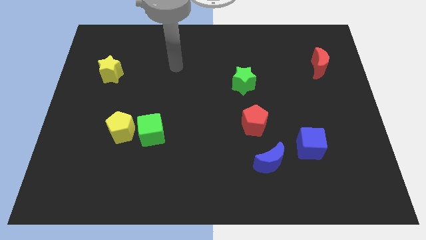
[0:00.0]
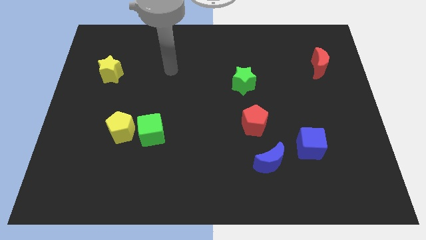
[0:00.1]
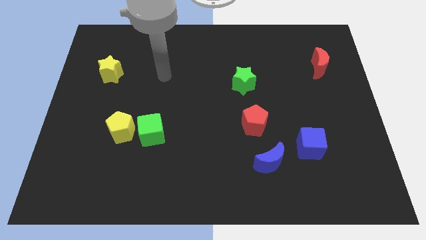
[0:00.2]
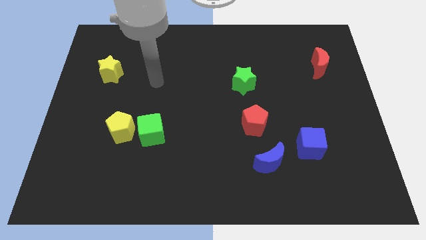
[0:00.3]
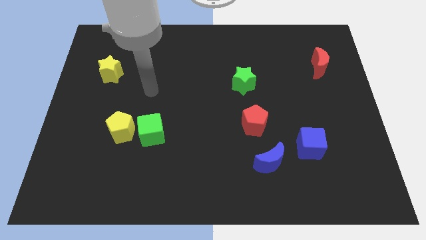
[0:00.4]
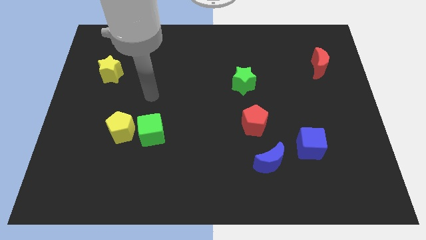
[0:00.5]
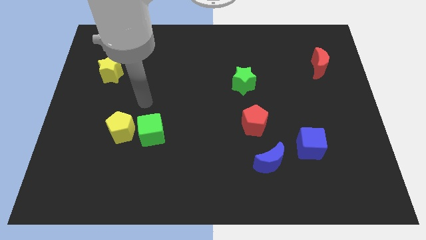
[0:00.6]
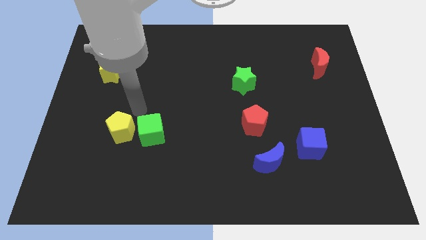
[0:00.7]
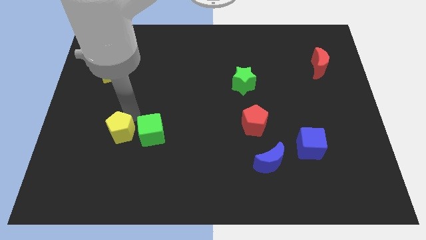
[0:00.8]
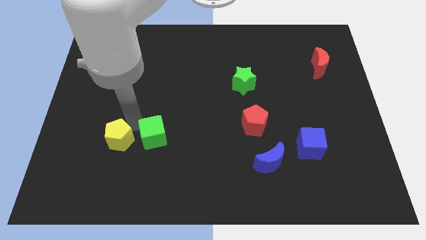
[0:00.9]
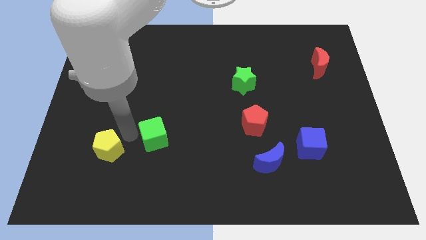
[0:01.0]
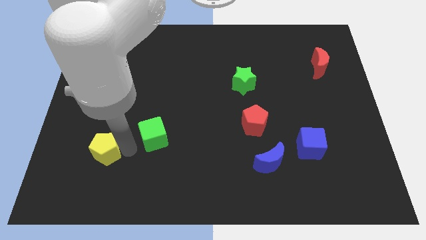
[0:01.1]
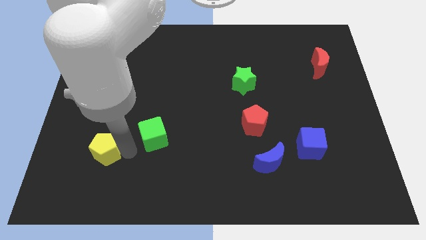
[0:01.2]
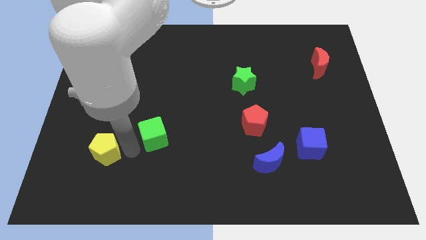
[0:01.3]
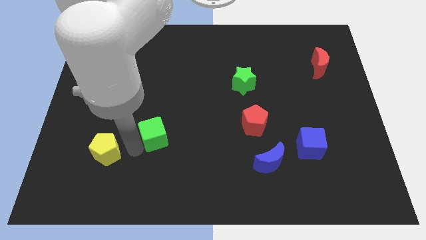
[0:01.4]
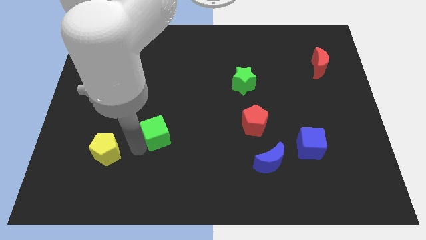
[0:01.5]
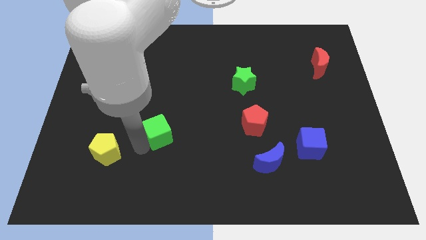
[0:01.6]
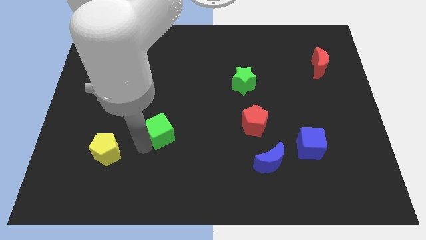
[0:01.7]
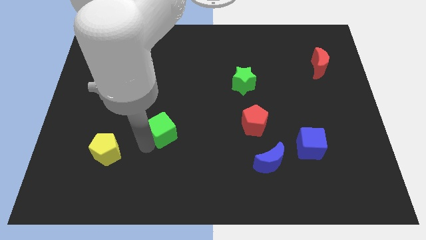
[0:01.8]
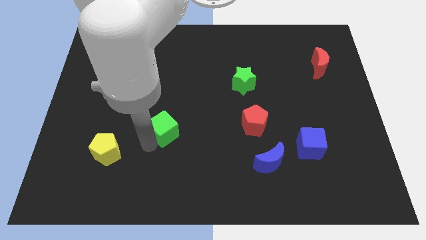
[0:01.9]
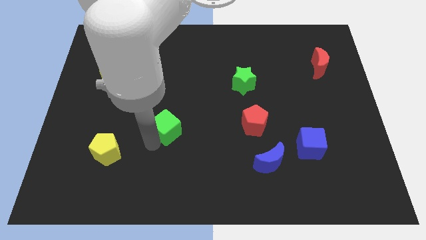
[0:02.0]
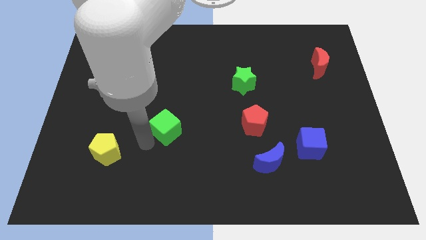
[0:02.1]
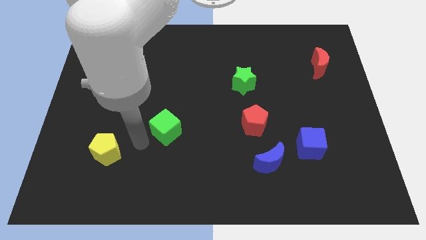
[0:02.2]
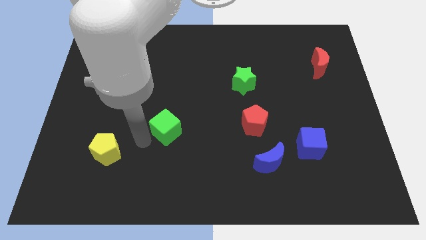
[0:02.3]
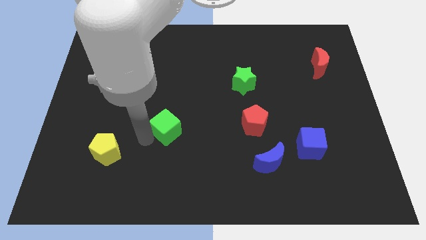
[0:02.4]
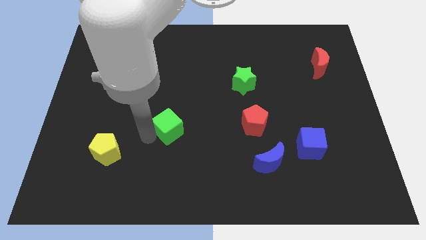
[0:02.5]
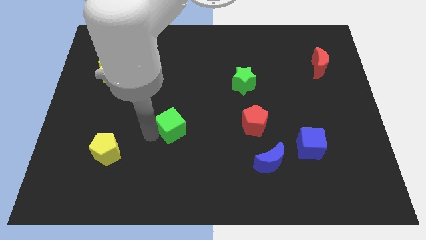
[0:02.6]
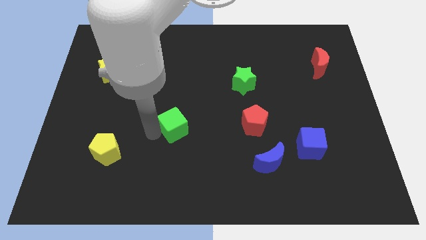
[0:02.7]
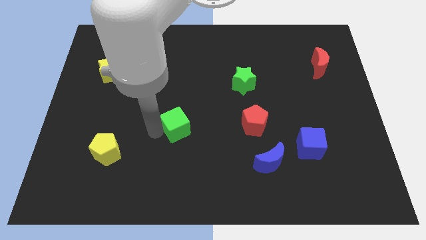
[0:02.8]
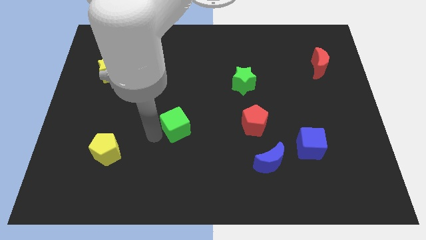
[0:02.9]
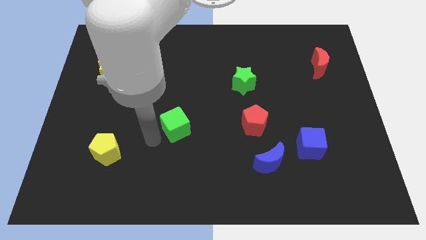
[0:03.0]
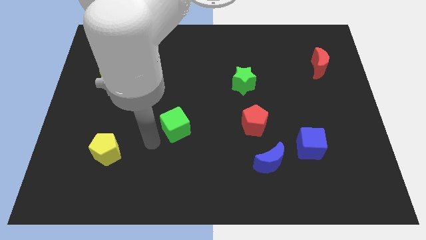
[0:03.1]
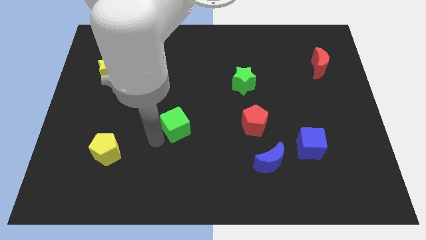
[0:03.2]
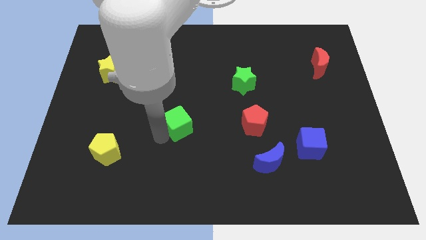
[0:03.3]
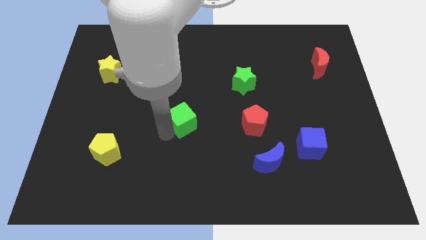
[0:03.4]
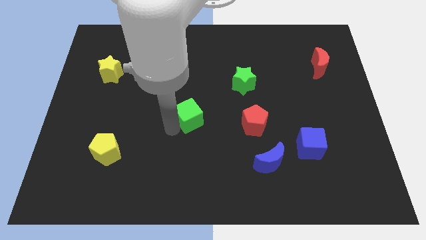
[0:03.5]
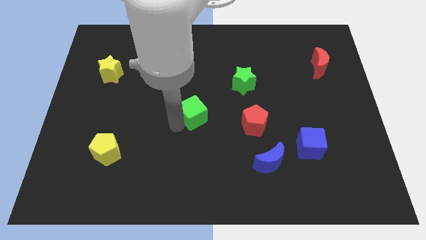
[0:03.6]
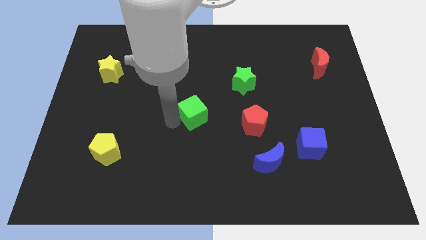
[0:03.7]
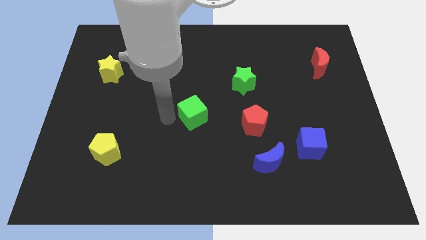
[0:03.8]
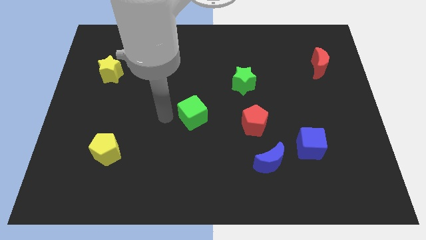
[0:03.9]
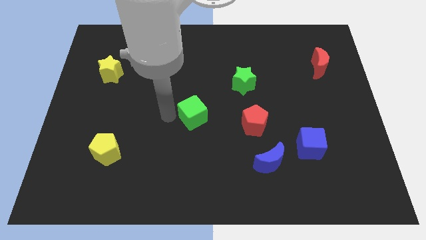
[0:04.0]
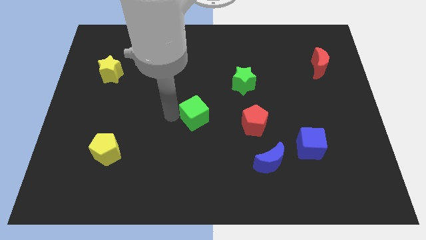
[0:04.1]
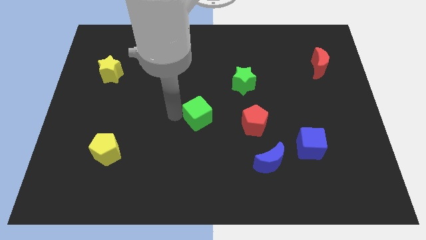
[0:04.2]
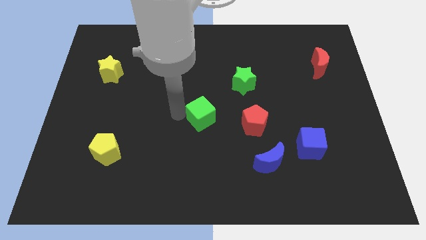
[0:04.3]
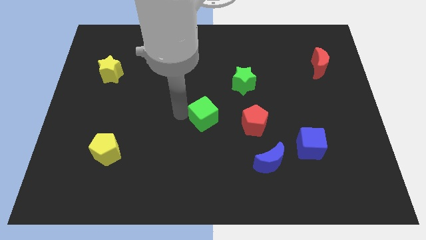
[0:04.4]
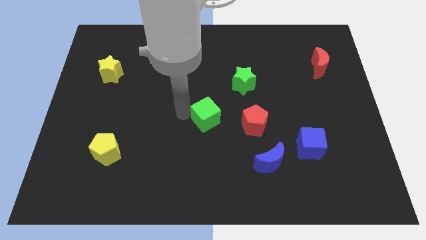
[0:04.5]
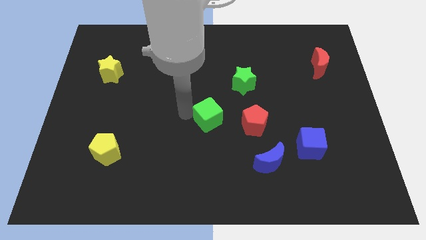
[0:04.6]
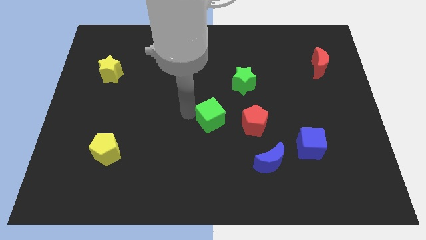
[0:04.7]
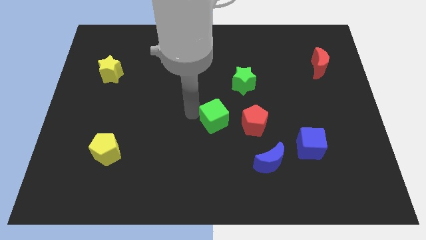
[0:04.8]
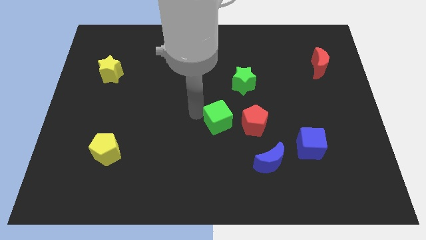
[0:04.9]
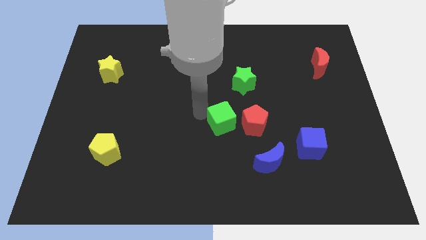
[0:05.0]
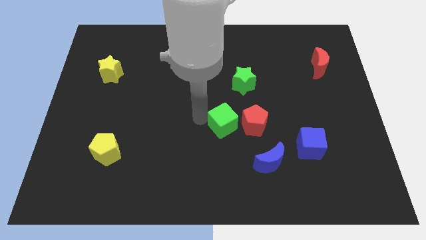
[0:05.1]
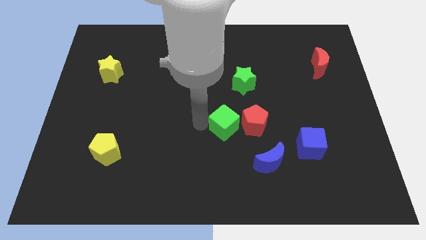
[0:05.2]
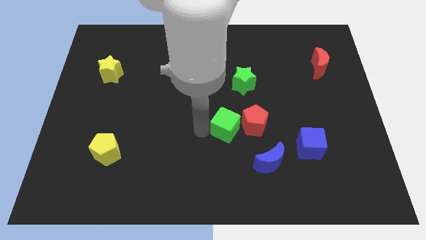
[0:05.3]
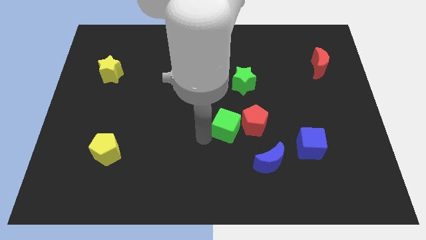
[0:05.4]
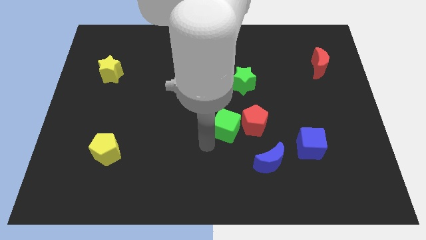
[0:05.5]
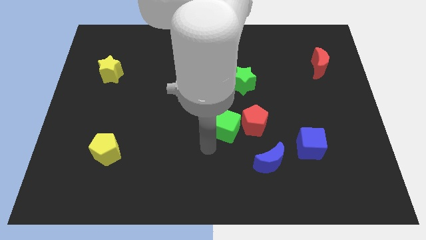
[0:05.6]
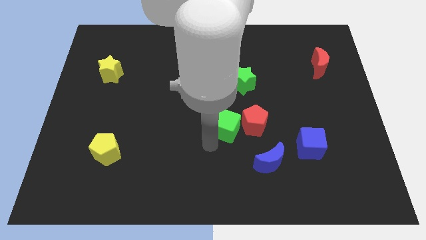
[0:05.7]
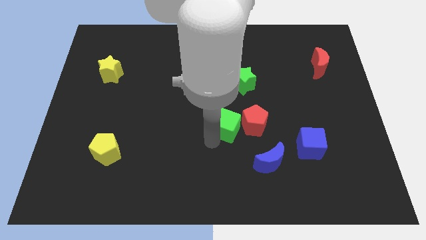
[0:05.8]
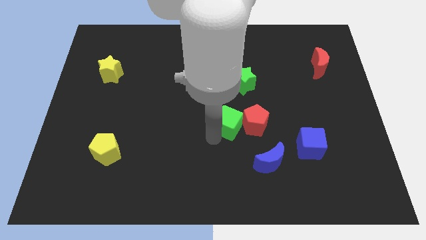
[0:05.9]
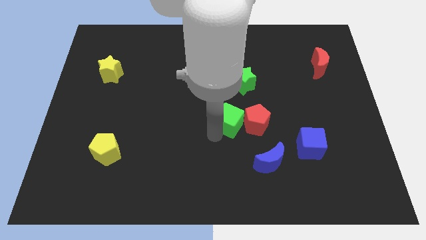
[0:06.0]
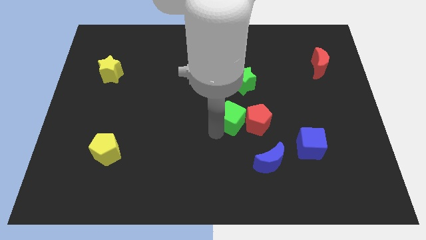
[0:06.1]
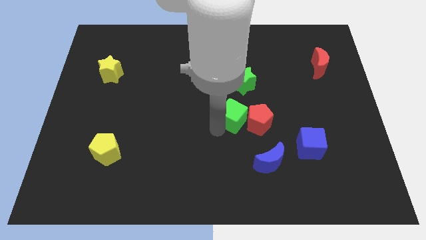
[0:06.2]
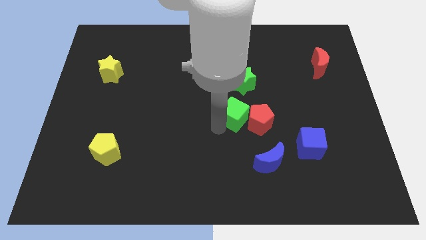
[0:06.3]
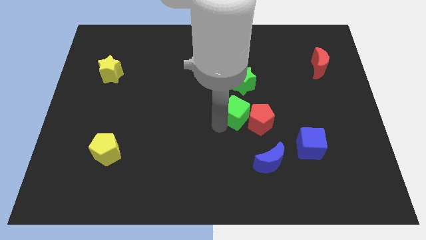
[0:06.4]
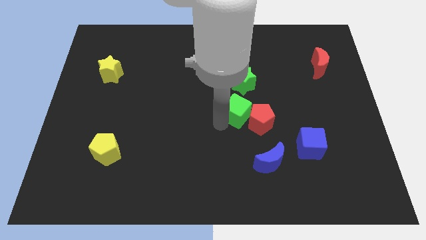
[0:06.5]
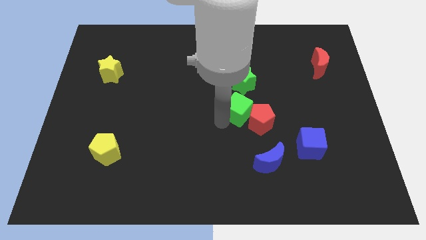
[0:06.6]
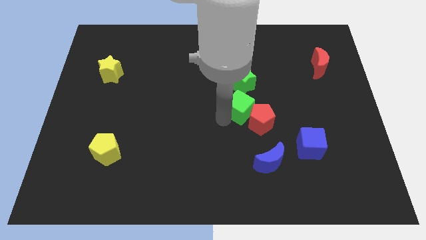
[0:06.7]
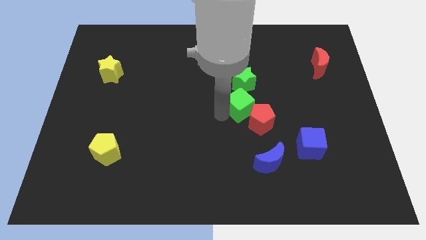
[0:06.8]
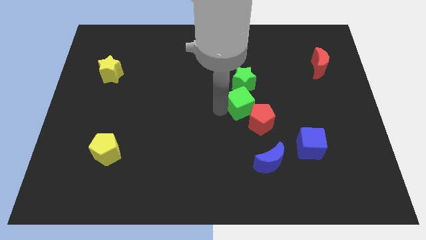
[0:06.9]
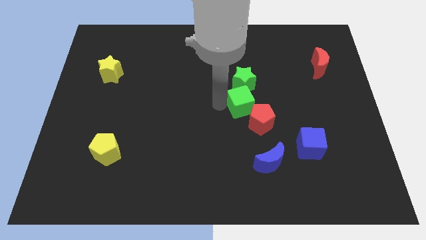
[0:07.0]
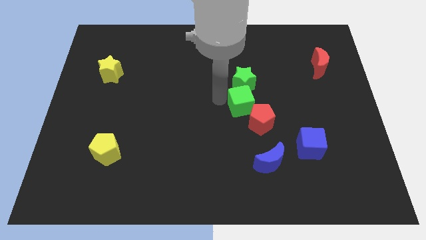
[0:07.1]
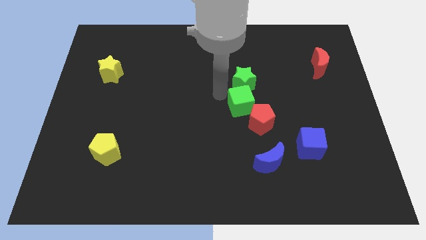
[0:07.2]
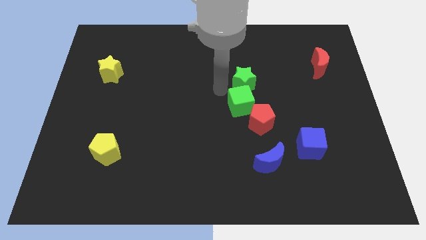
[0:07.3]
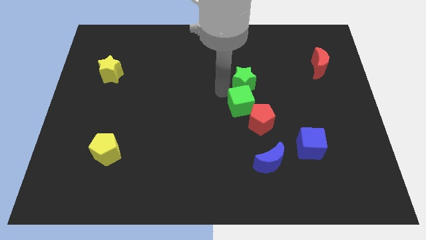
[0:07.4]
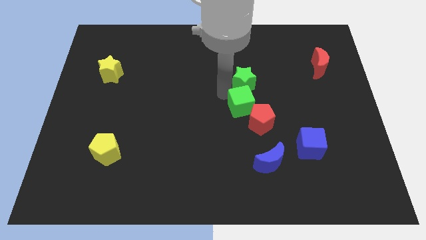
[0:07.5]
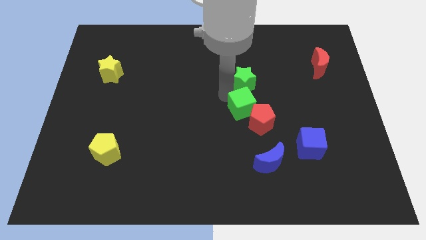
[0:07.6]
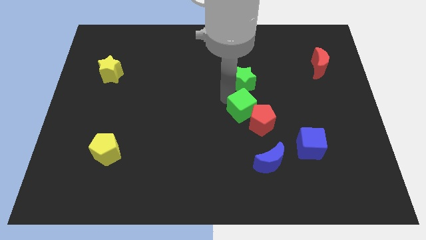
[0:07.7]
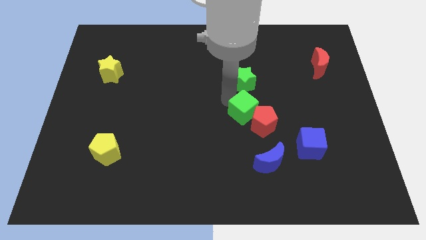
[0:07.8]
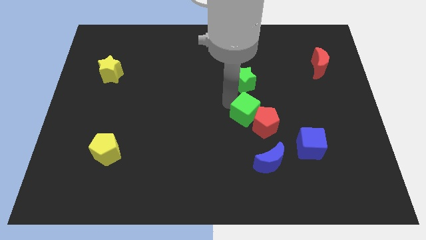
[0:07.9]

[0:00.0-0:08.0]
slide the green cube to the top of the blue moon
